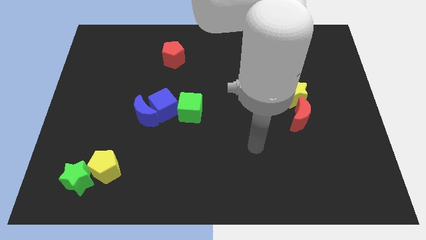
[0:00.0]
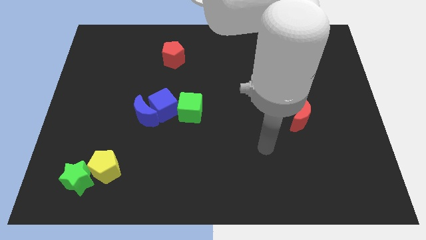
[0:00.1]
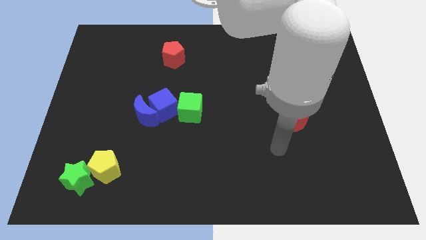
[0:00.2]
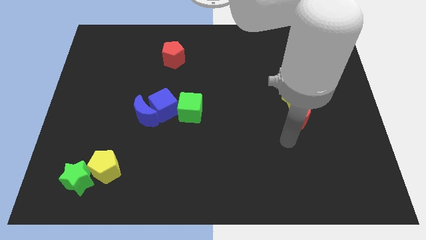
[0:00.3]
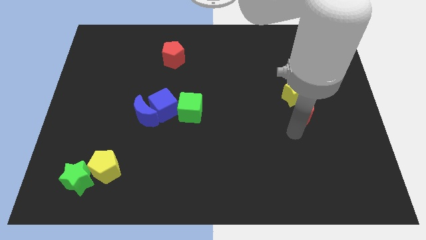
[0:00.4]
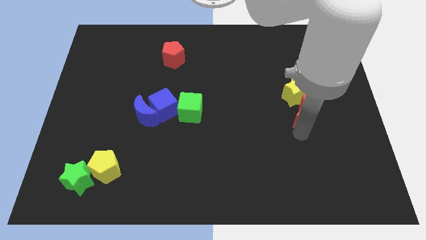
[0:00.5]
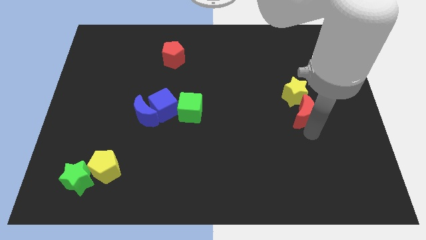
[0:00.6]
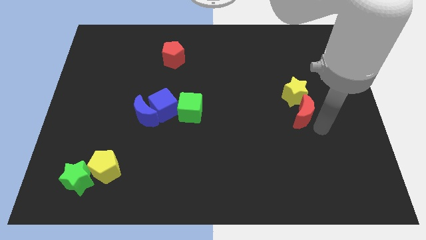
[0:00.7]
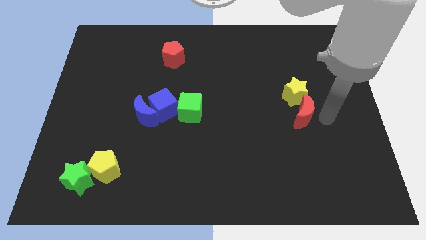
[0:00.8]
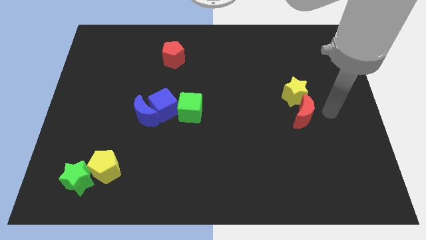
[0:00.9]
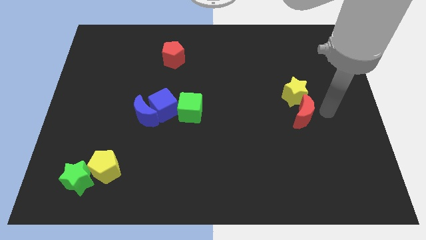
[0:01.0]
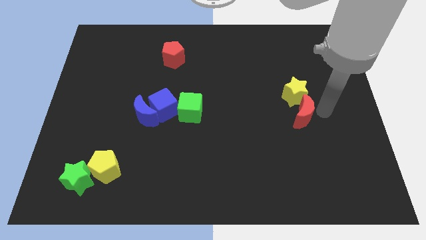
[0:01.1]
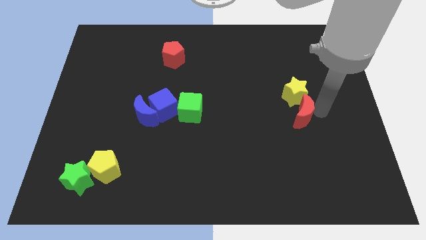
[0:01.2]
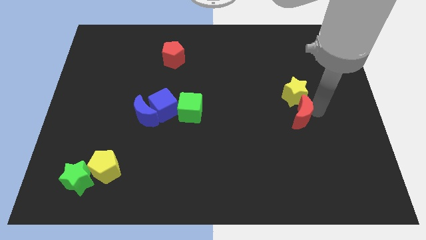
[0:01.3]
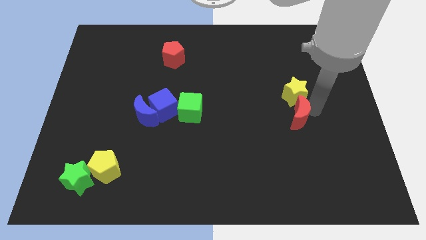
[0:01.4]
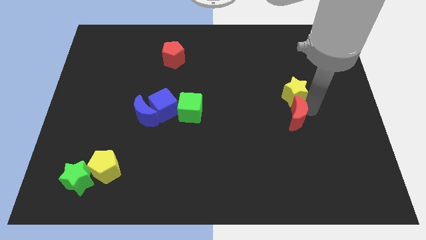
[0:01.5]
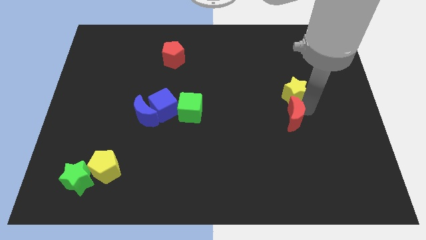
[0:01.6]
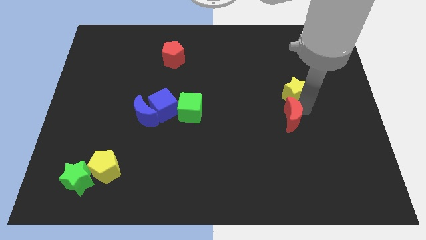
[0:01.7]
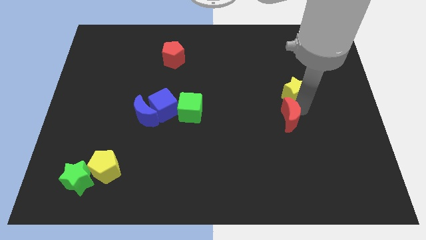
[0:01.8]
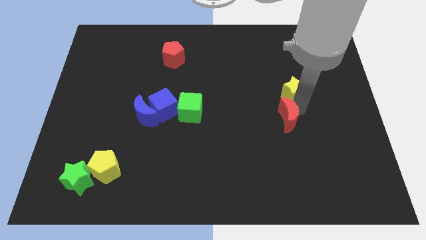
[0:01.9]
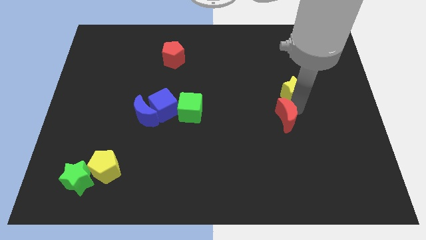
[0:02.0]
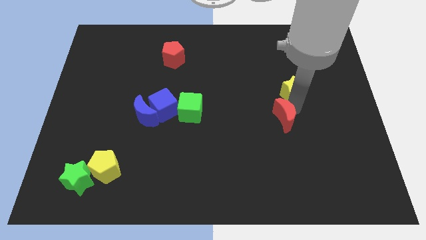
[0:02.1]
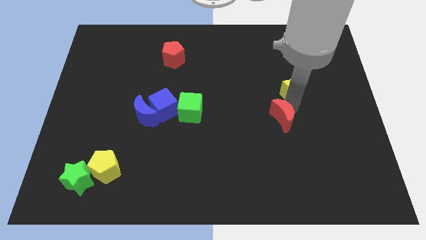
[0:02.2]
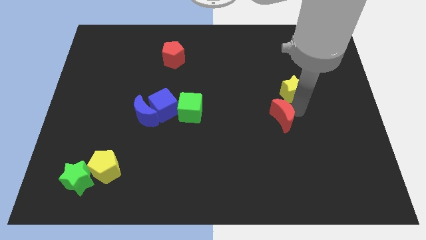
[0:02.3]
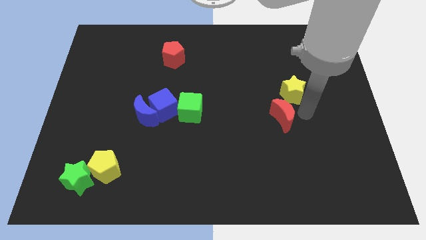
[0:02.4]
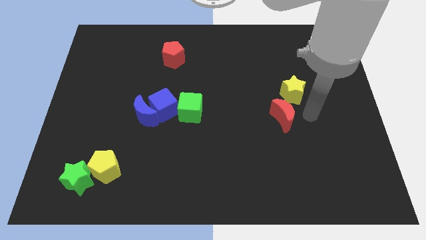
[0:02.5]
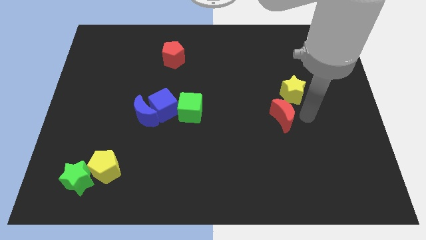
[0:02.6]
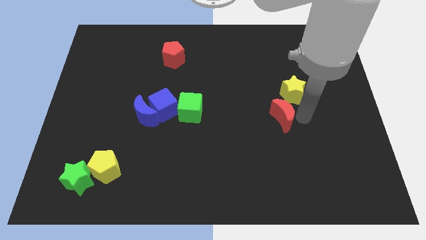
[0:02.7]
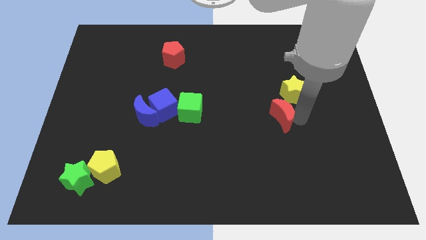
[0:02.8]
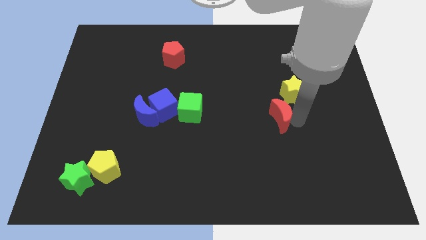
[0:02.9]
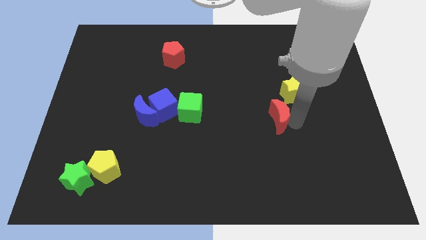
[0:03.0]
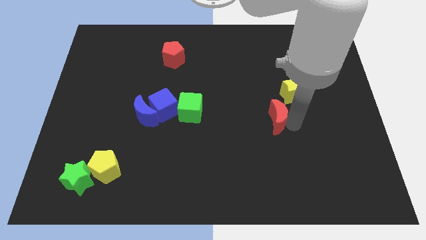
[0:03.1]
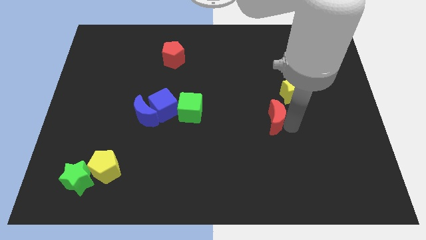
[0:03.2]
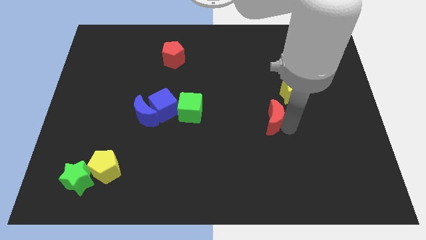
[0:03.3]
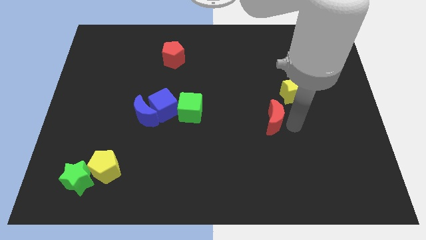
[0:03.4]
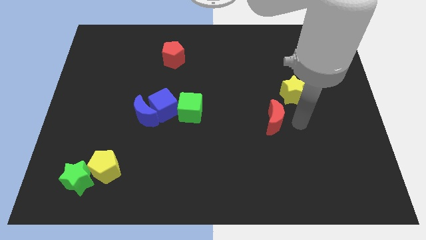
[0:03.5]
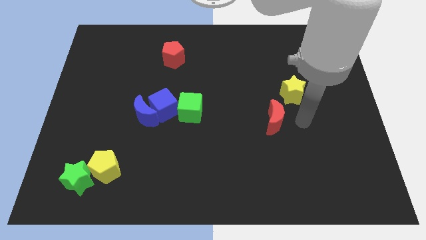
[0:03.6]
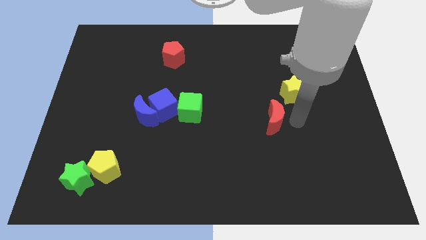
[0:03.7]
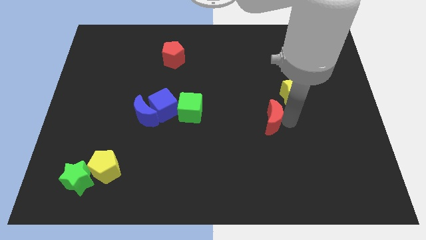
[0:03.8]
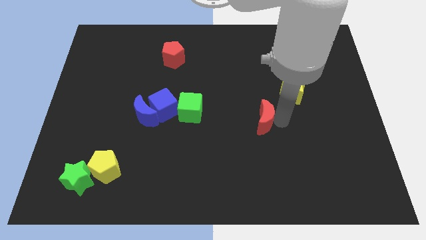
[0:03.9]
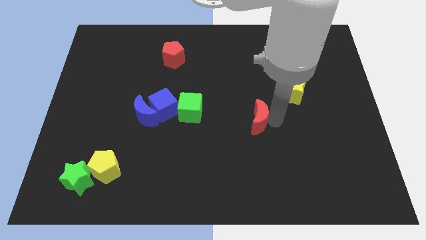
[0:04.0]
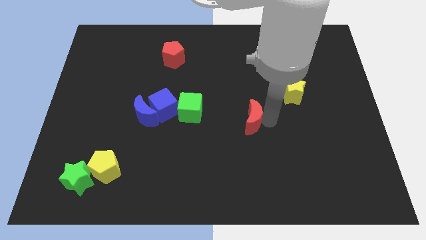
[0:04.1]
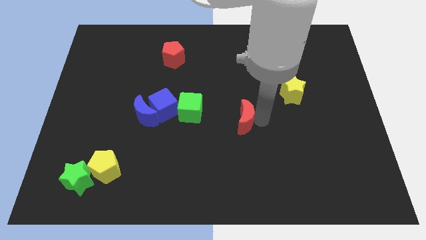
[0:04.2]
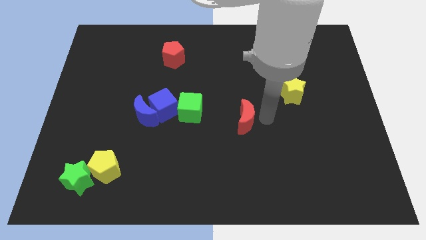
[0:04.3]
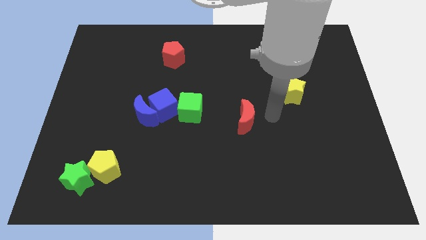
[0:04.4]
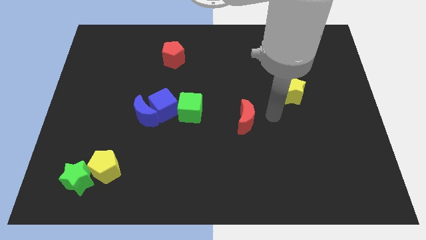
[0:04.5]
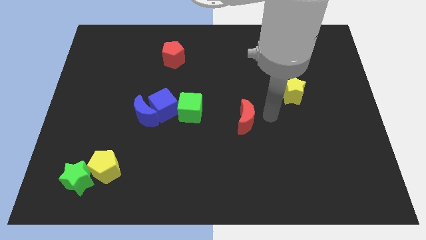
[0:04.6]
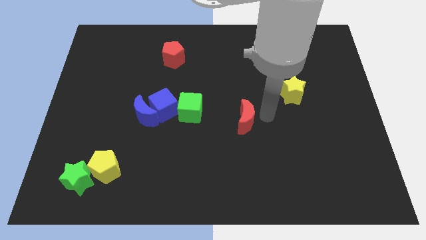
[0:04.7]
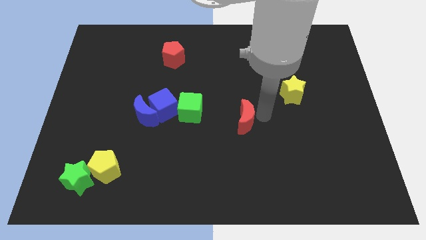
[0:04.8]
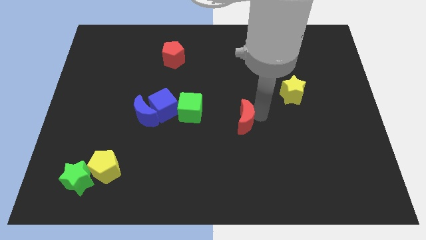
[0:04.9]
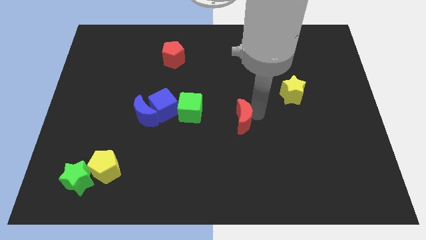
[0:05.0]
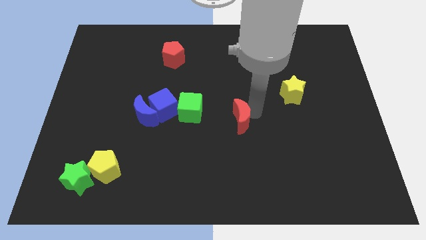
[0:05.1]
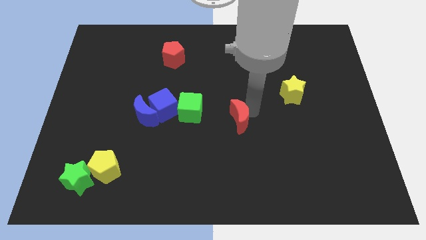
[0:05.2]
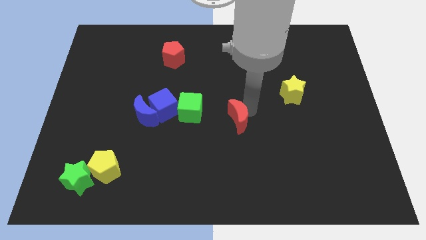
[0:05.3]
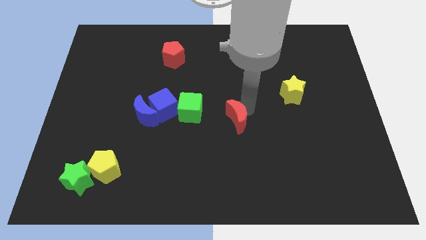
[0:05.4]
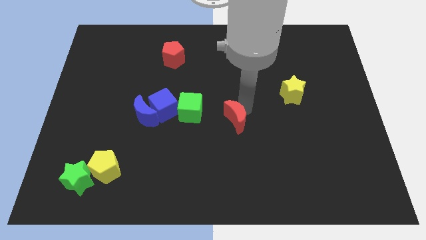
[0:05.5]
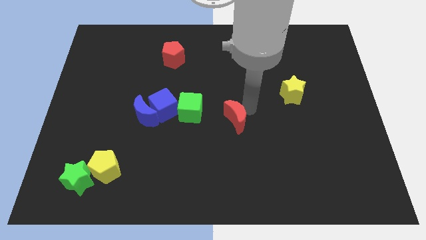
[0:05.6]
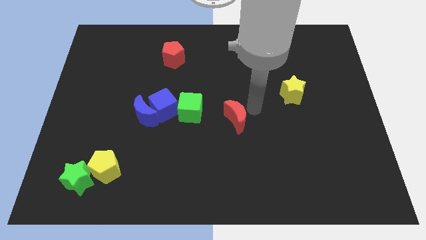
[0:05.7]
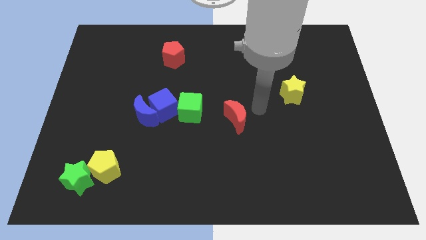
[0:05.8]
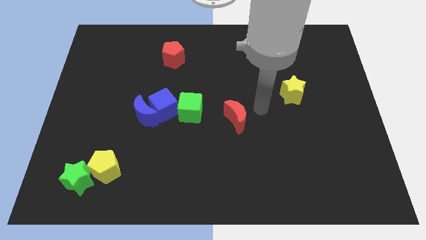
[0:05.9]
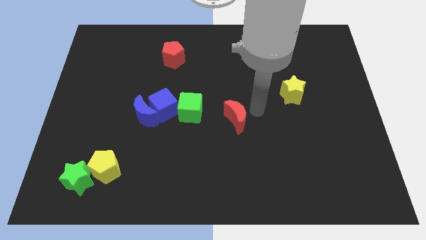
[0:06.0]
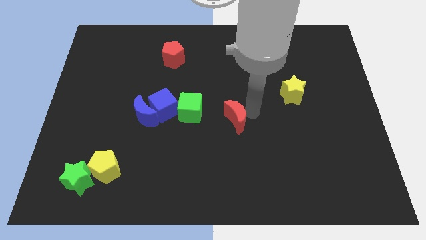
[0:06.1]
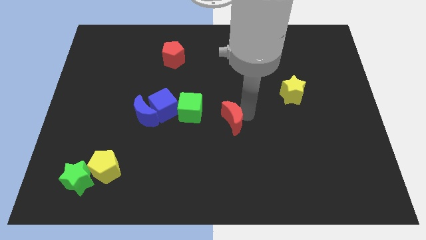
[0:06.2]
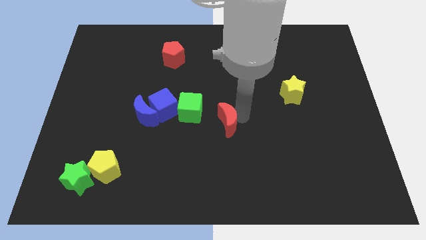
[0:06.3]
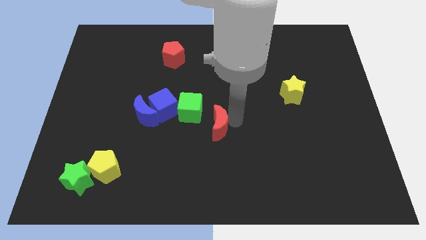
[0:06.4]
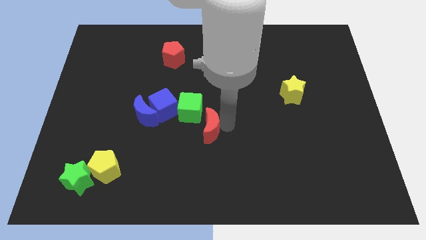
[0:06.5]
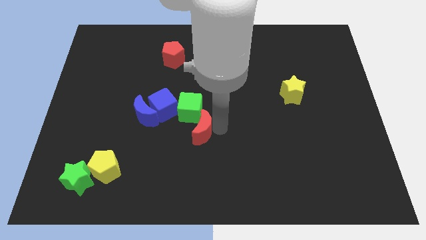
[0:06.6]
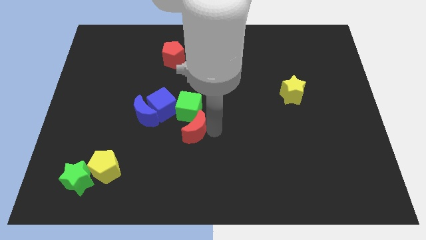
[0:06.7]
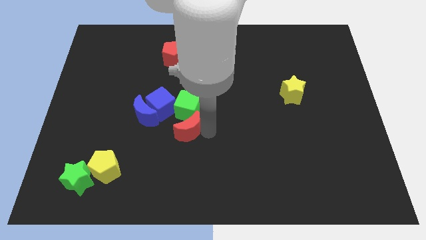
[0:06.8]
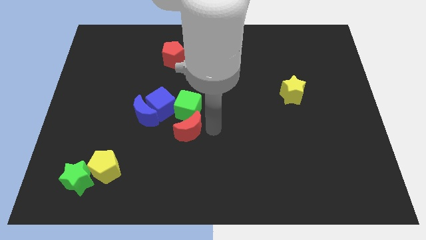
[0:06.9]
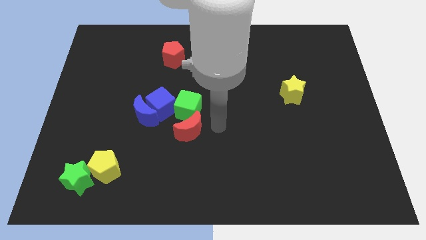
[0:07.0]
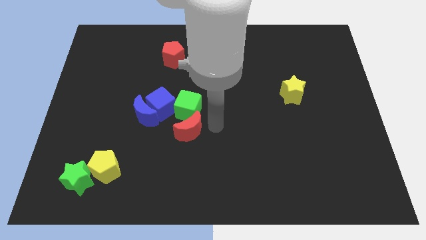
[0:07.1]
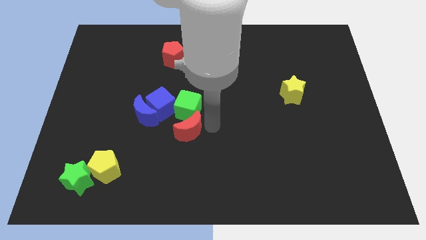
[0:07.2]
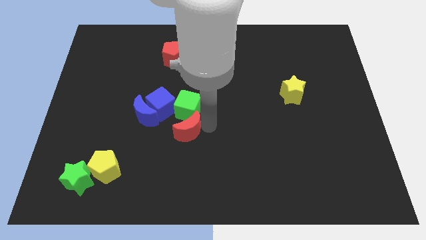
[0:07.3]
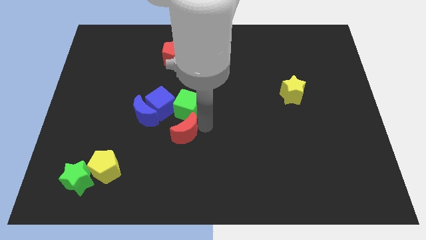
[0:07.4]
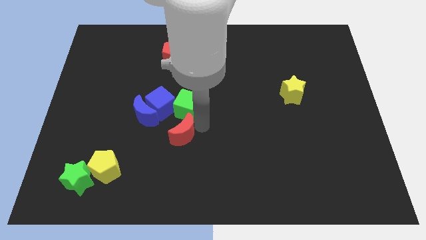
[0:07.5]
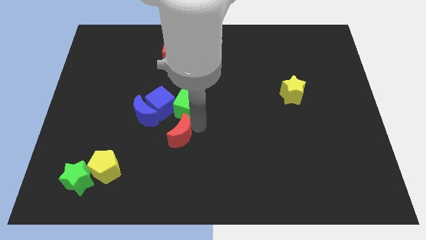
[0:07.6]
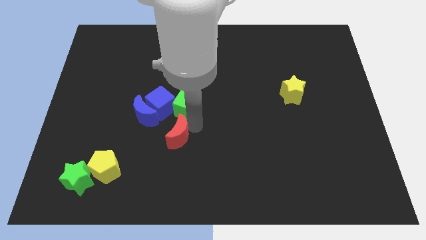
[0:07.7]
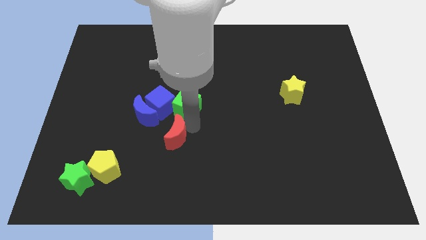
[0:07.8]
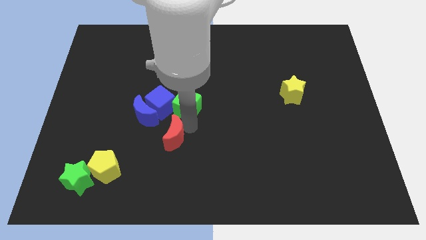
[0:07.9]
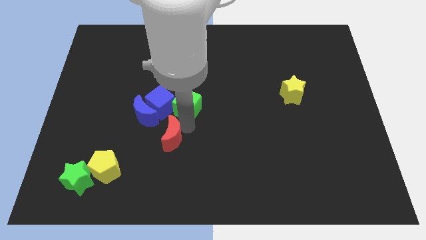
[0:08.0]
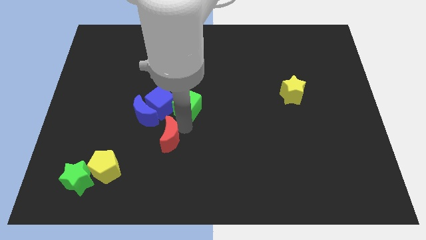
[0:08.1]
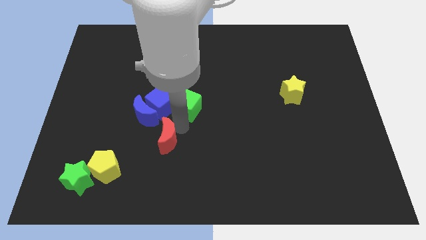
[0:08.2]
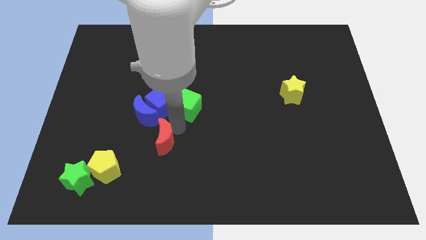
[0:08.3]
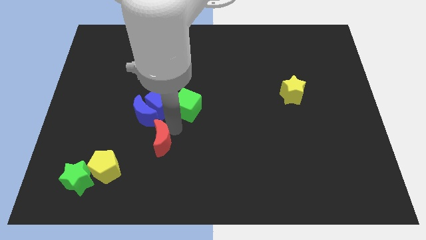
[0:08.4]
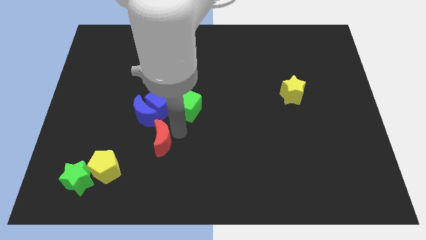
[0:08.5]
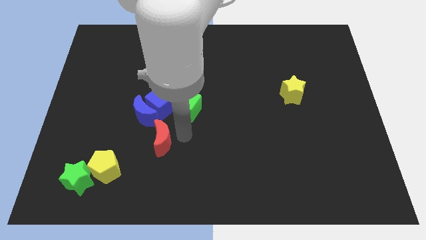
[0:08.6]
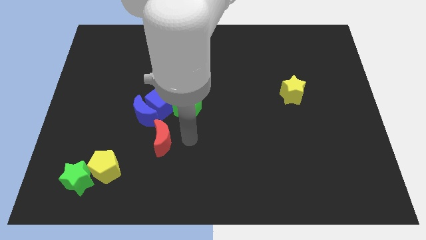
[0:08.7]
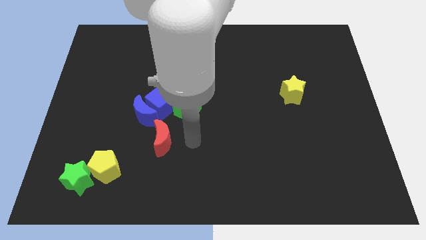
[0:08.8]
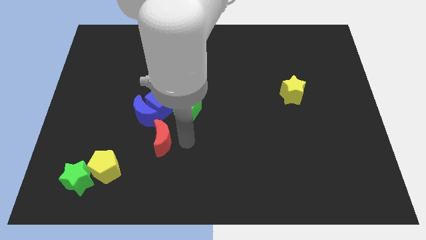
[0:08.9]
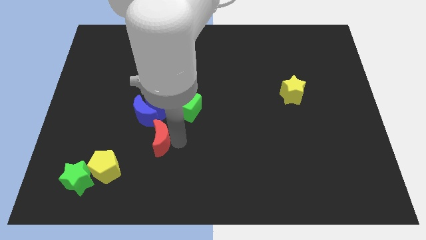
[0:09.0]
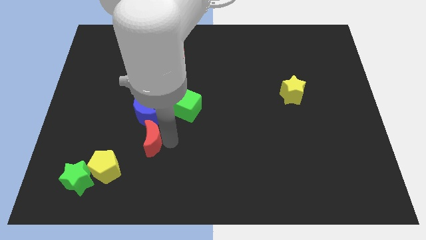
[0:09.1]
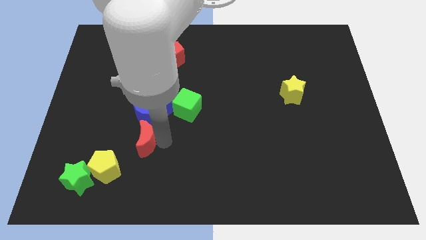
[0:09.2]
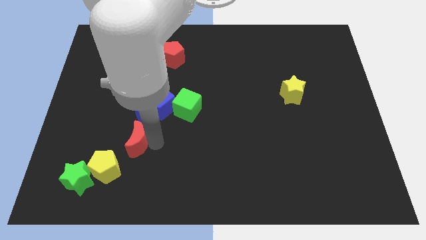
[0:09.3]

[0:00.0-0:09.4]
slide the red moon to the bottom left side of the blue moon
